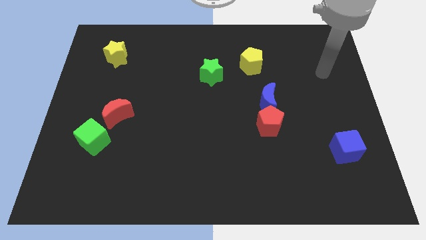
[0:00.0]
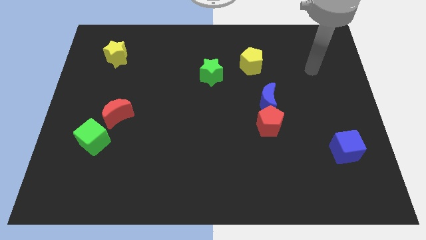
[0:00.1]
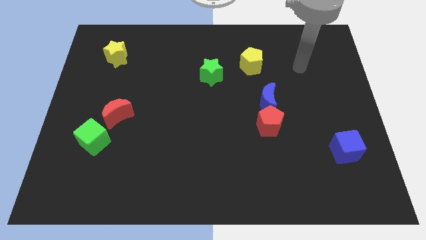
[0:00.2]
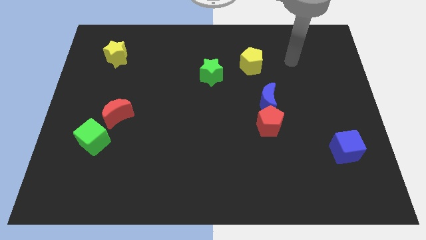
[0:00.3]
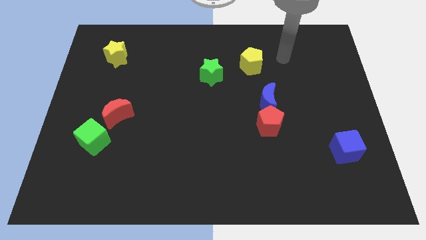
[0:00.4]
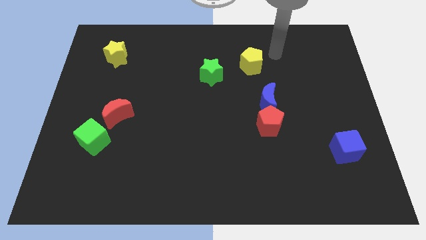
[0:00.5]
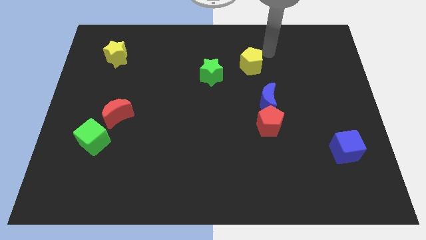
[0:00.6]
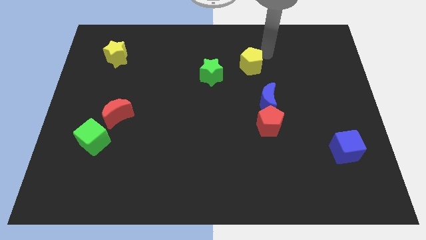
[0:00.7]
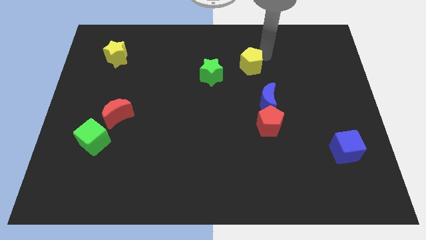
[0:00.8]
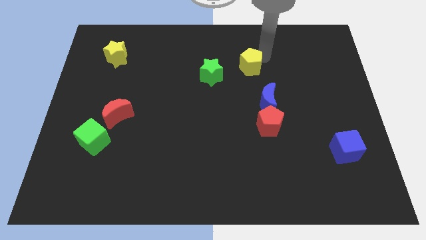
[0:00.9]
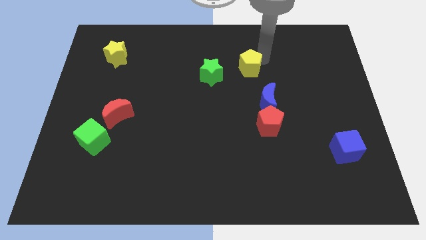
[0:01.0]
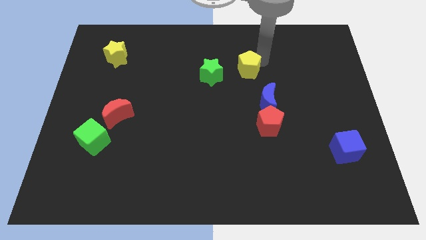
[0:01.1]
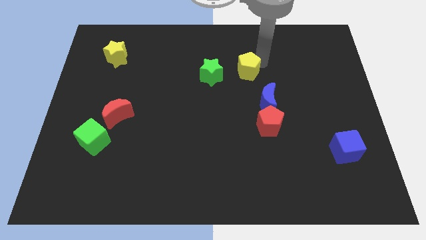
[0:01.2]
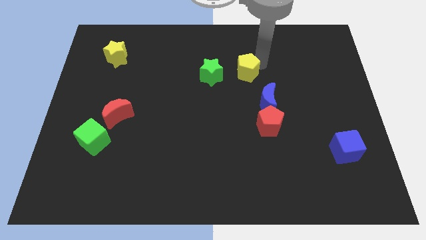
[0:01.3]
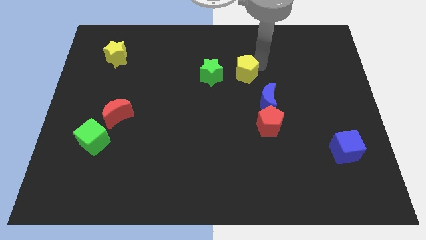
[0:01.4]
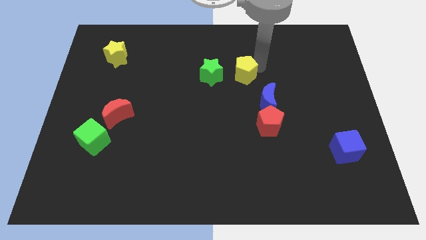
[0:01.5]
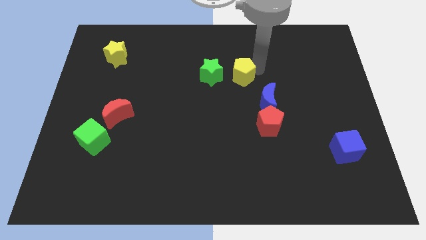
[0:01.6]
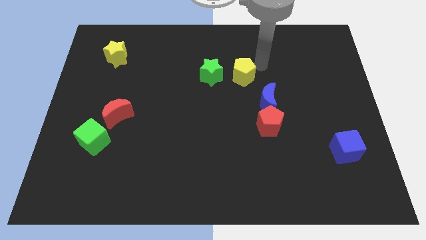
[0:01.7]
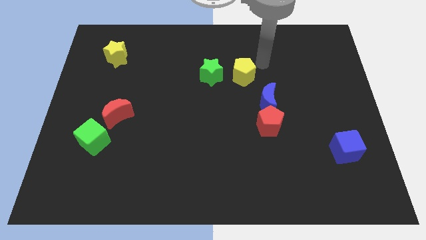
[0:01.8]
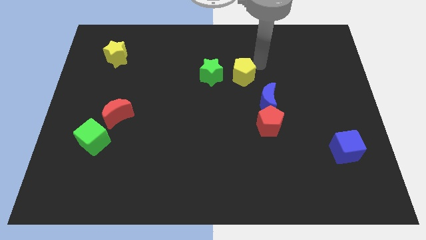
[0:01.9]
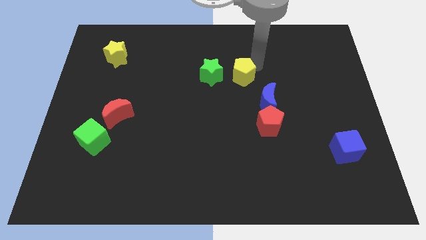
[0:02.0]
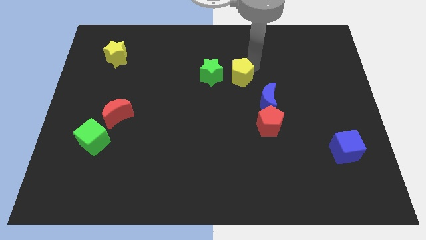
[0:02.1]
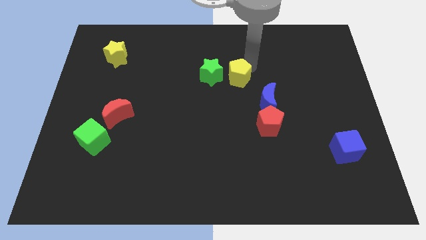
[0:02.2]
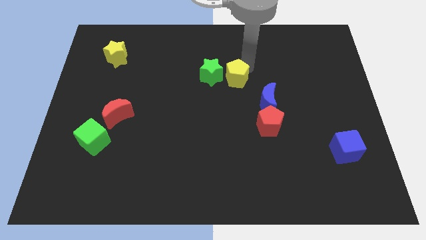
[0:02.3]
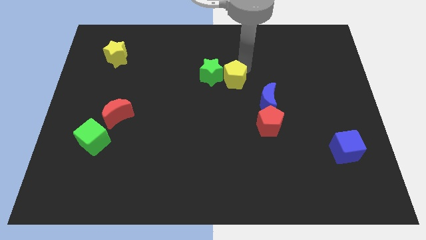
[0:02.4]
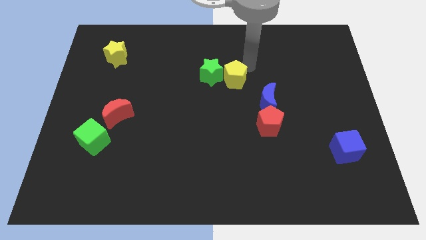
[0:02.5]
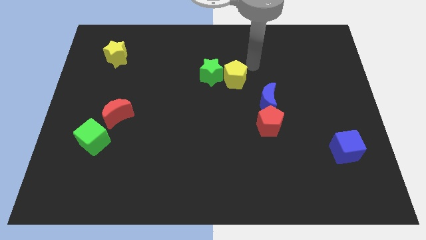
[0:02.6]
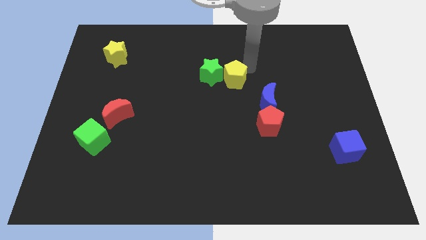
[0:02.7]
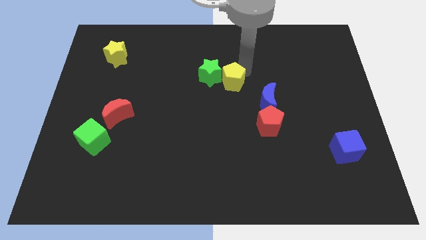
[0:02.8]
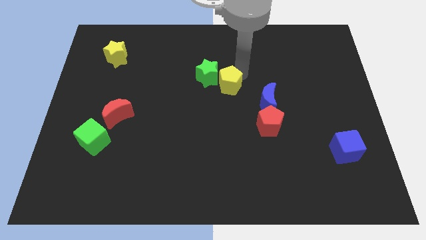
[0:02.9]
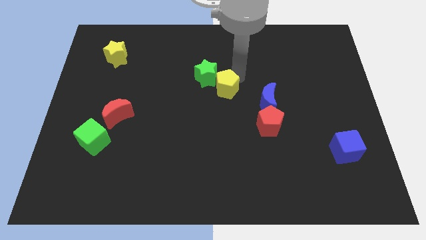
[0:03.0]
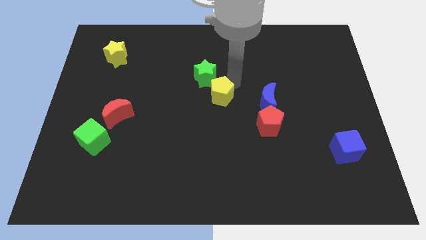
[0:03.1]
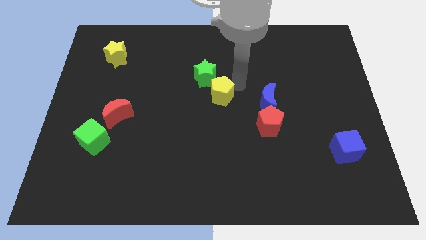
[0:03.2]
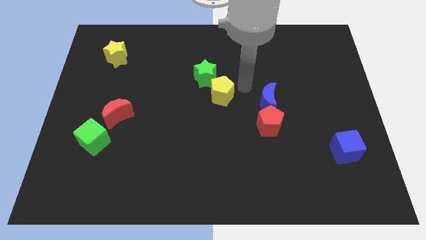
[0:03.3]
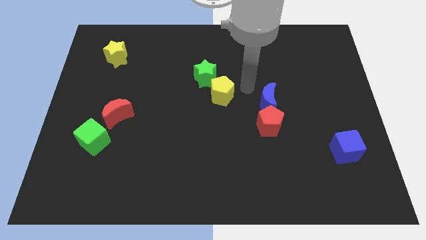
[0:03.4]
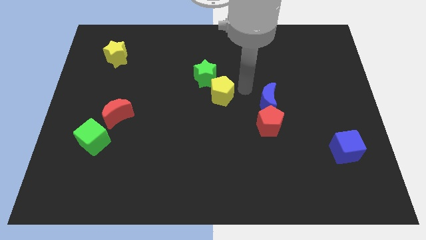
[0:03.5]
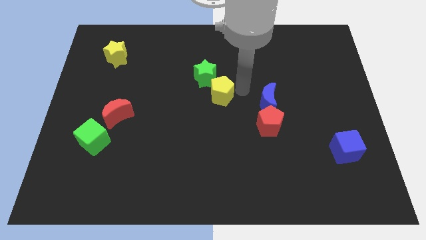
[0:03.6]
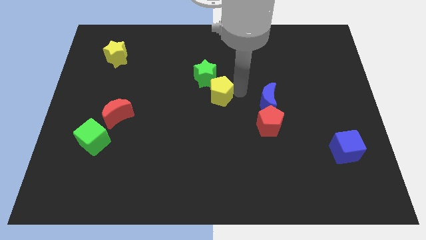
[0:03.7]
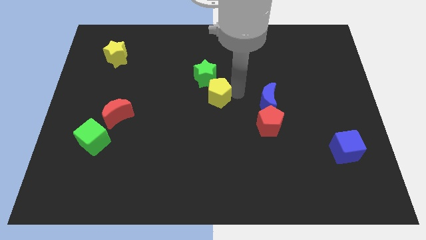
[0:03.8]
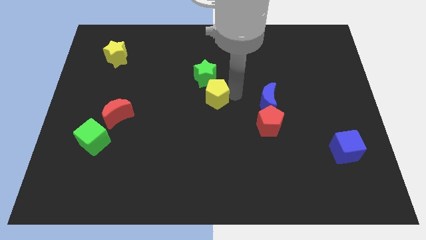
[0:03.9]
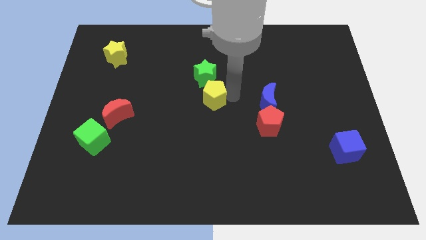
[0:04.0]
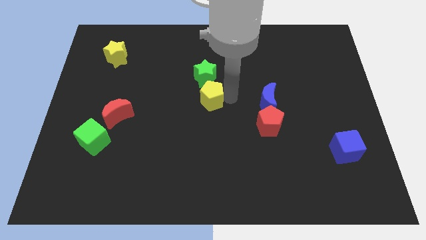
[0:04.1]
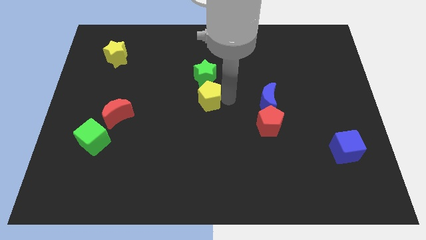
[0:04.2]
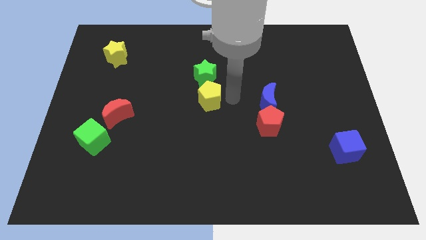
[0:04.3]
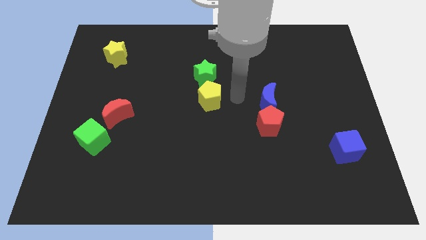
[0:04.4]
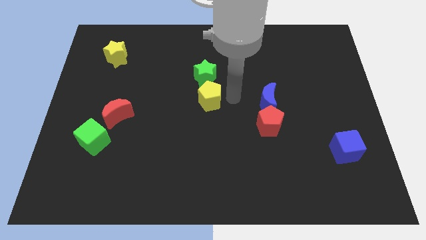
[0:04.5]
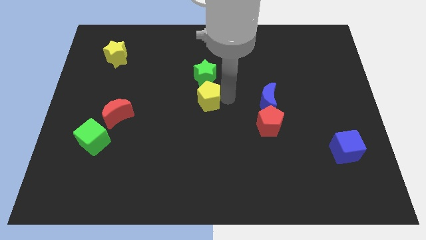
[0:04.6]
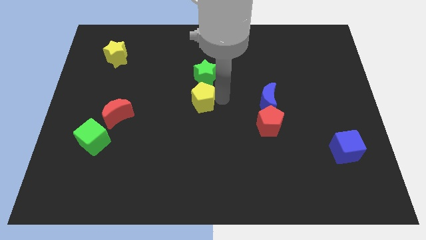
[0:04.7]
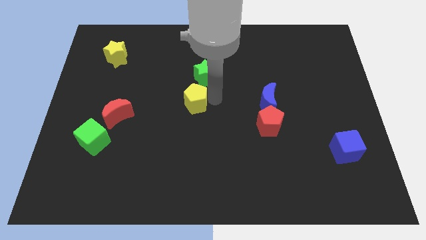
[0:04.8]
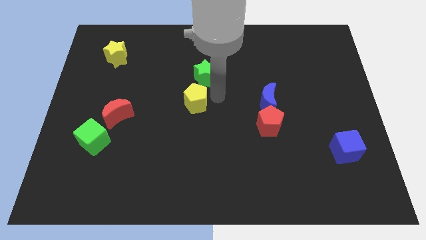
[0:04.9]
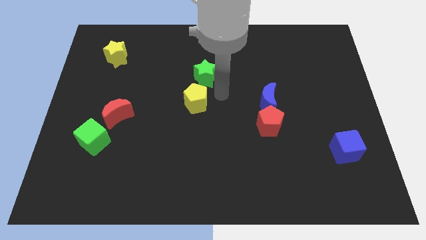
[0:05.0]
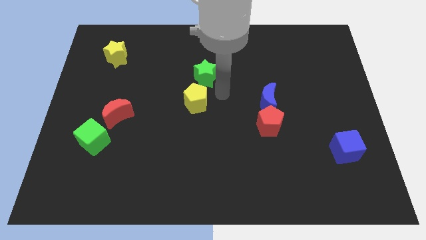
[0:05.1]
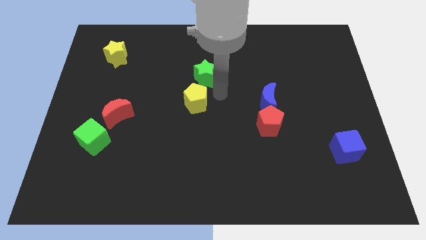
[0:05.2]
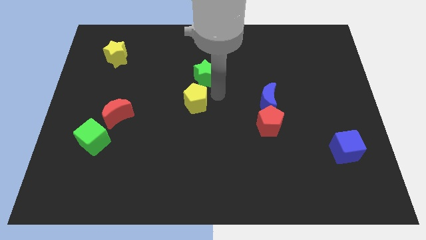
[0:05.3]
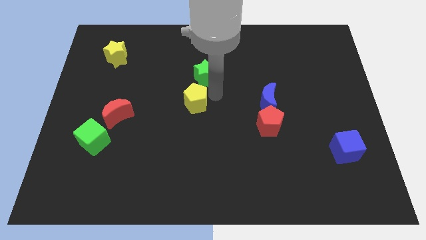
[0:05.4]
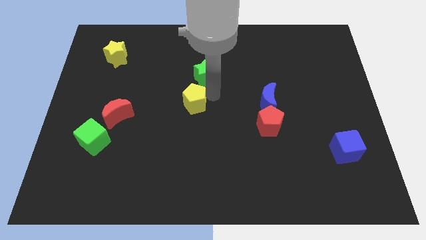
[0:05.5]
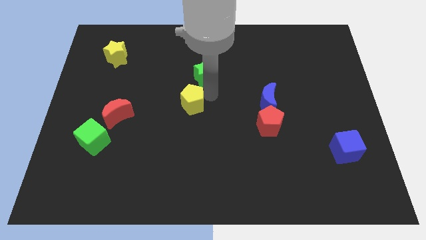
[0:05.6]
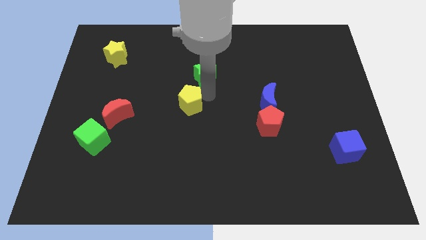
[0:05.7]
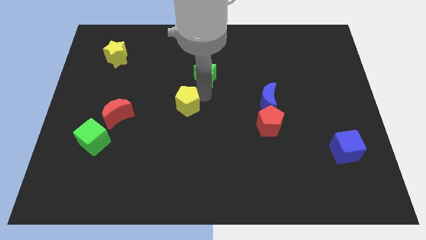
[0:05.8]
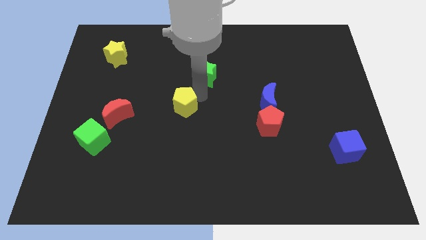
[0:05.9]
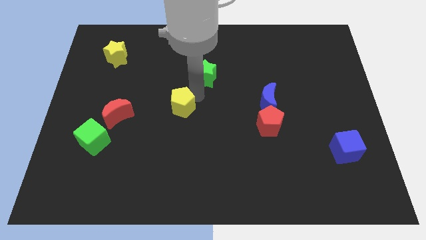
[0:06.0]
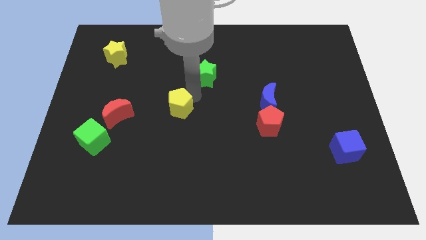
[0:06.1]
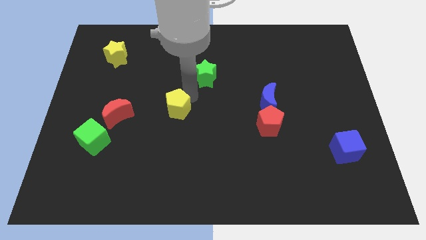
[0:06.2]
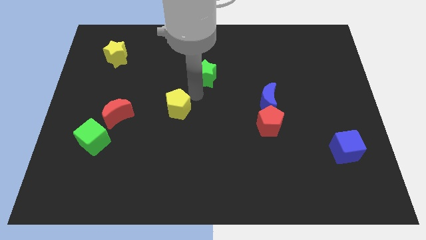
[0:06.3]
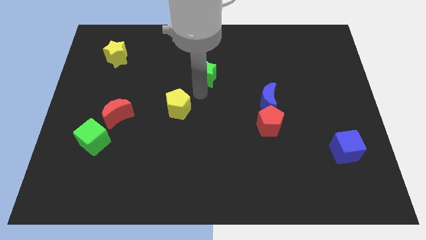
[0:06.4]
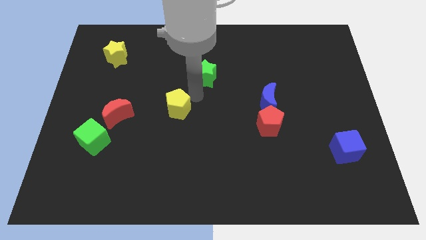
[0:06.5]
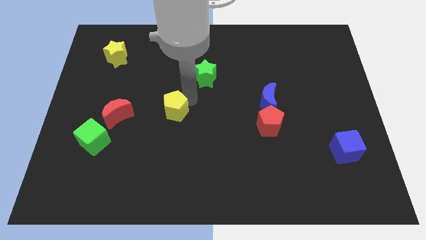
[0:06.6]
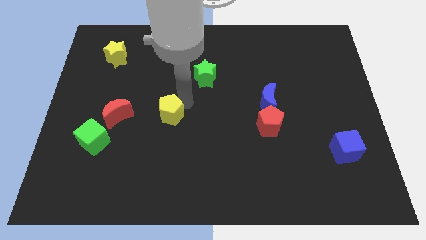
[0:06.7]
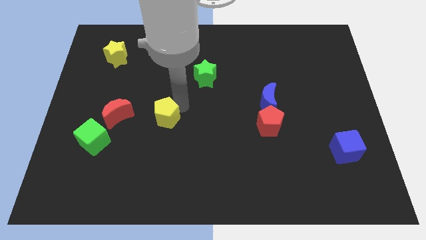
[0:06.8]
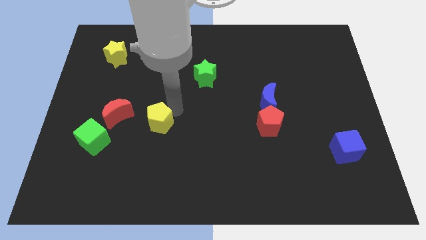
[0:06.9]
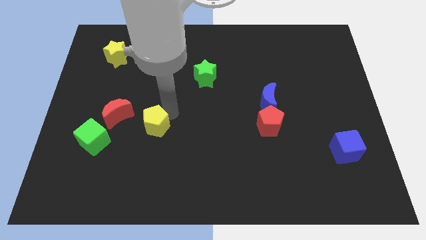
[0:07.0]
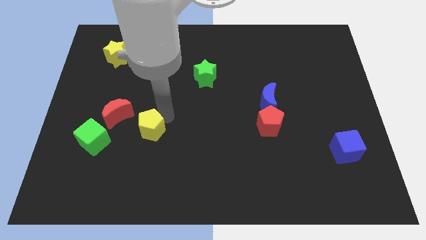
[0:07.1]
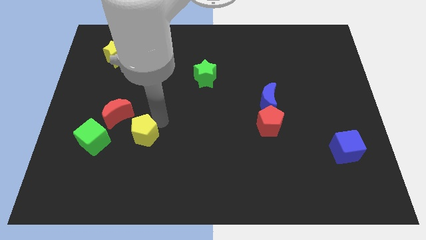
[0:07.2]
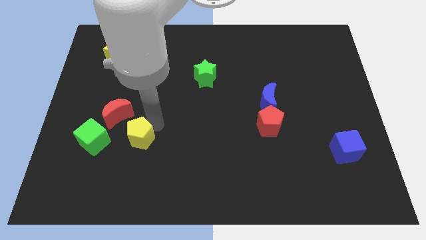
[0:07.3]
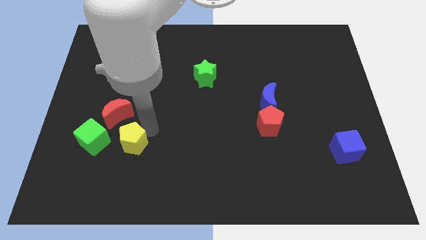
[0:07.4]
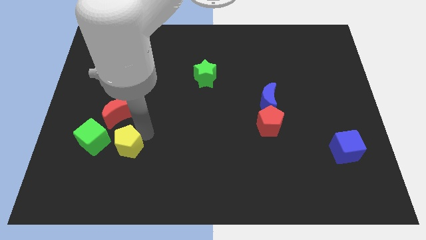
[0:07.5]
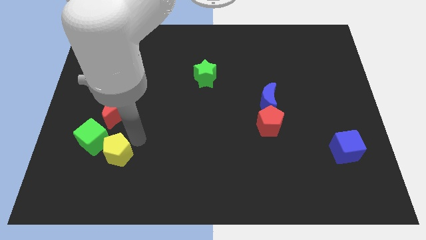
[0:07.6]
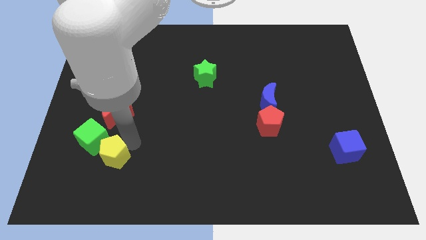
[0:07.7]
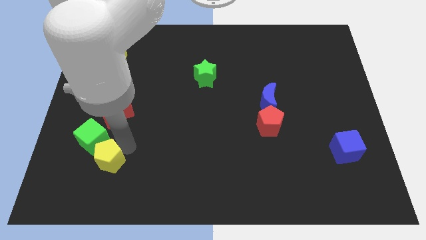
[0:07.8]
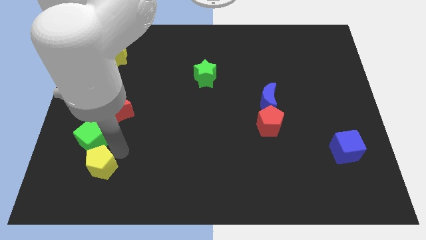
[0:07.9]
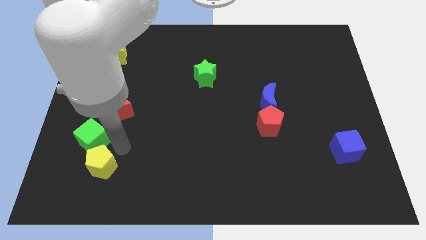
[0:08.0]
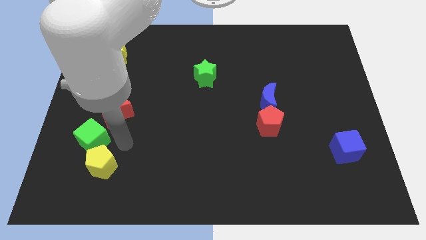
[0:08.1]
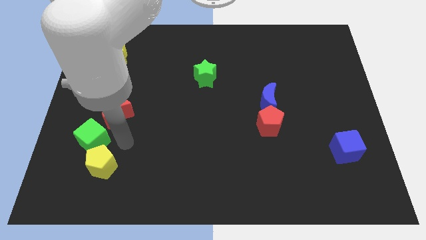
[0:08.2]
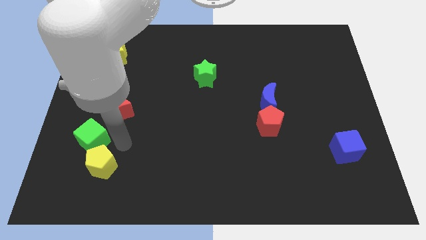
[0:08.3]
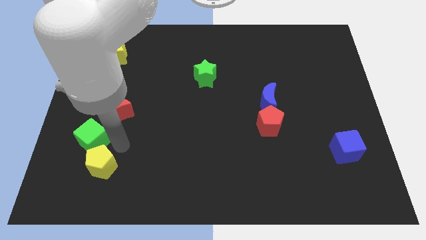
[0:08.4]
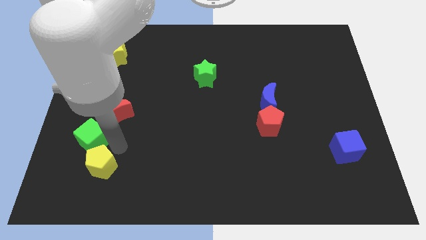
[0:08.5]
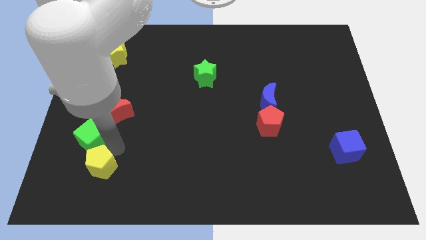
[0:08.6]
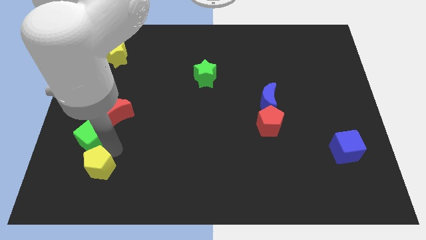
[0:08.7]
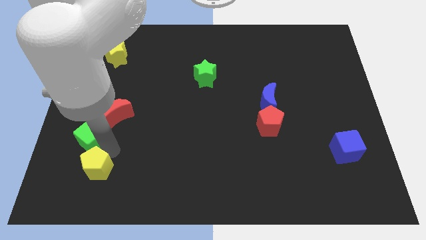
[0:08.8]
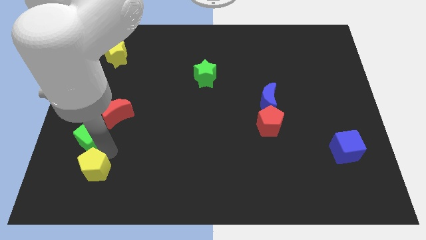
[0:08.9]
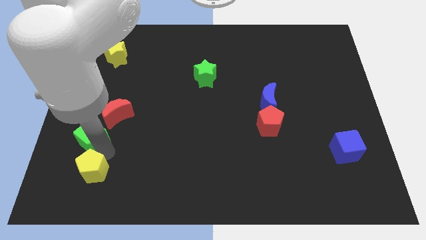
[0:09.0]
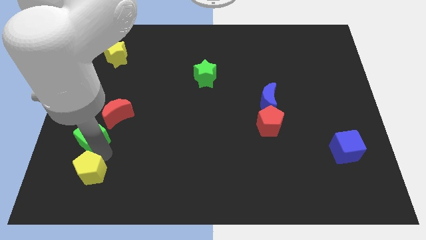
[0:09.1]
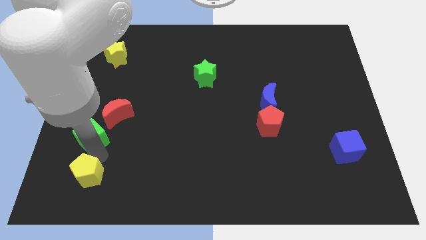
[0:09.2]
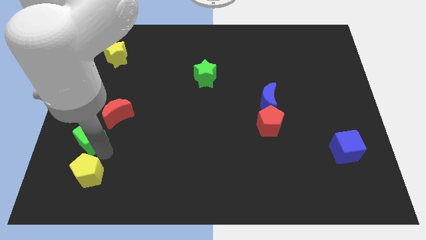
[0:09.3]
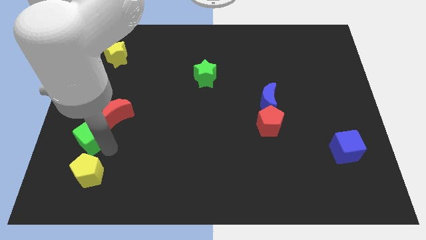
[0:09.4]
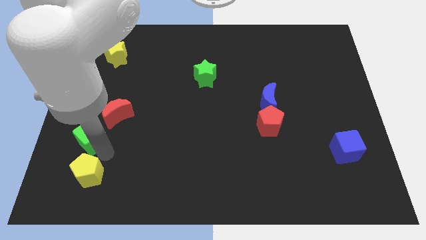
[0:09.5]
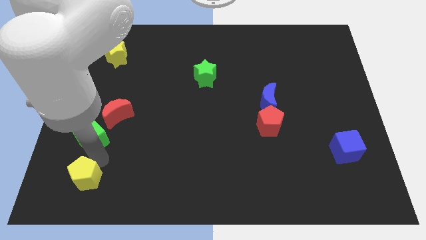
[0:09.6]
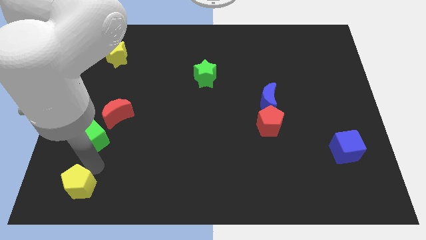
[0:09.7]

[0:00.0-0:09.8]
push the yellow pentagon to the bottom left corner
